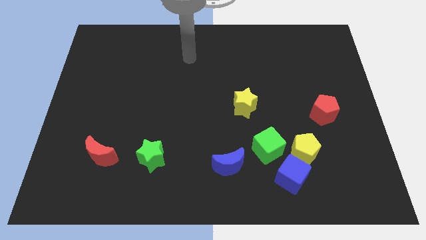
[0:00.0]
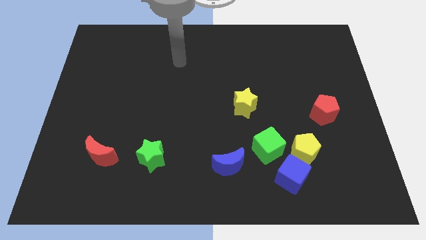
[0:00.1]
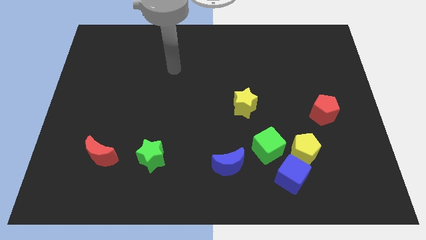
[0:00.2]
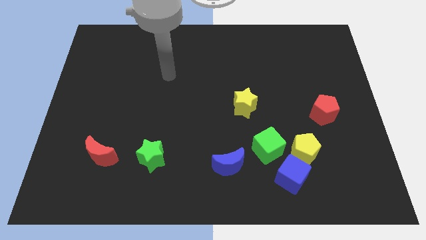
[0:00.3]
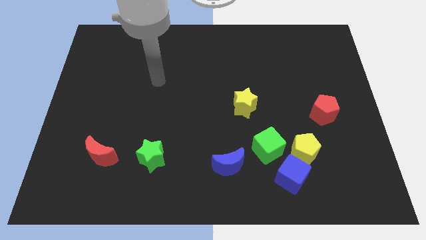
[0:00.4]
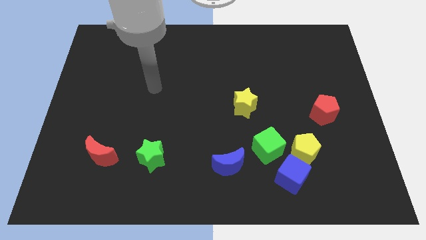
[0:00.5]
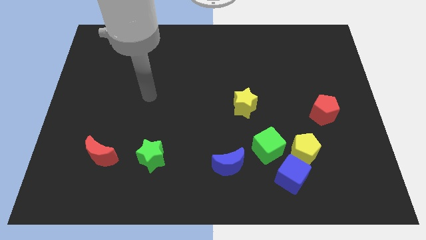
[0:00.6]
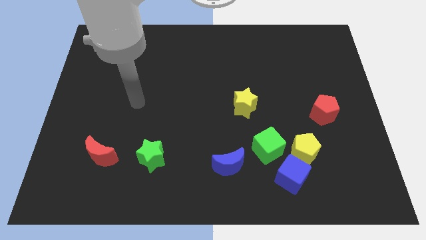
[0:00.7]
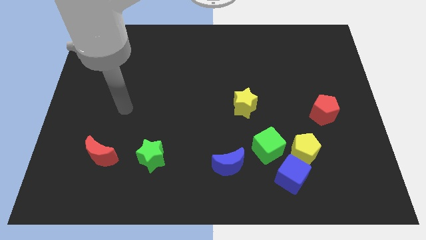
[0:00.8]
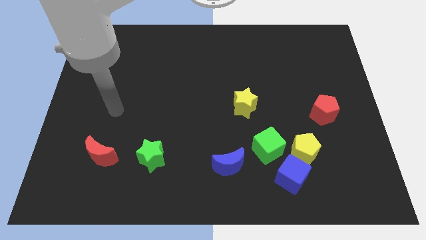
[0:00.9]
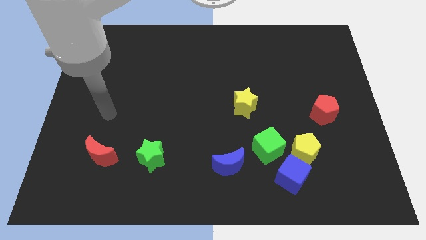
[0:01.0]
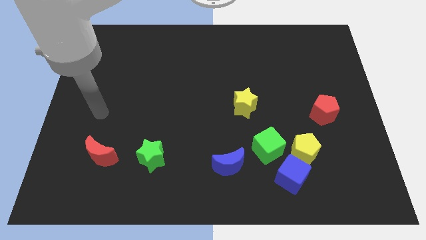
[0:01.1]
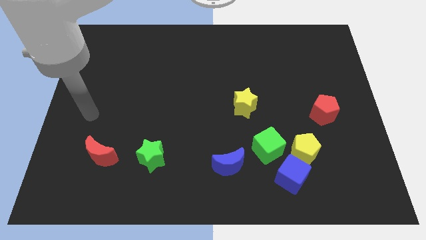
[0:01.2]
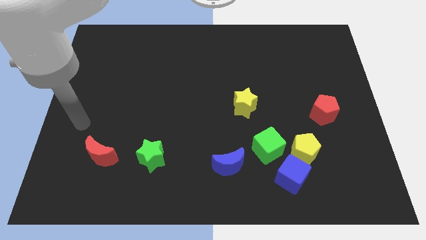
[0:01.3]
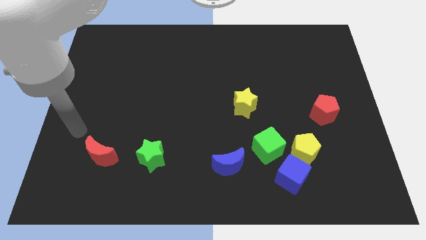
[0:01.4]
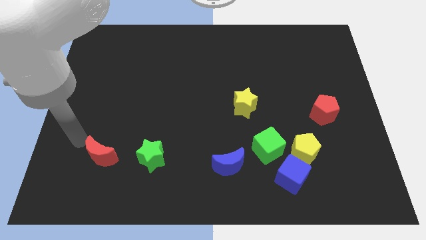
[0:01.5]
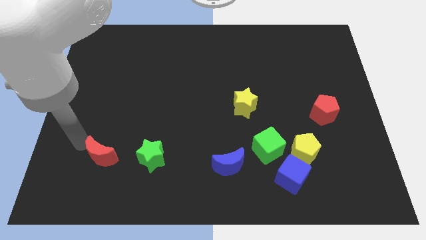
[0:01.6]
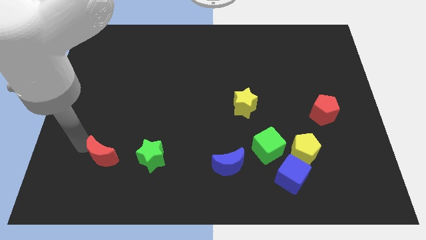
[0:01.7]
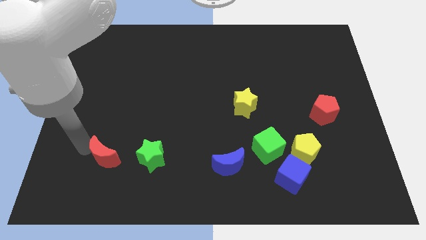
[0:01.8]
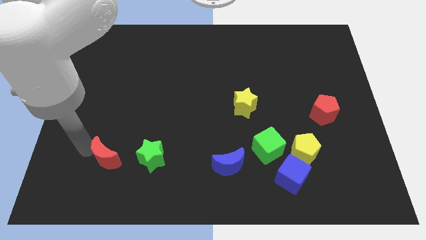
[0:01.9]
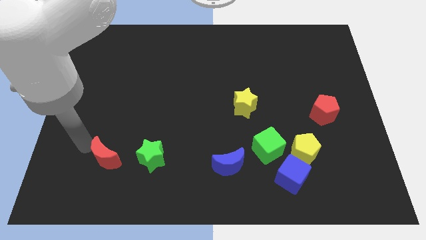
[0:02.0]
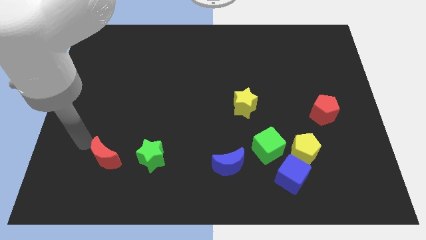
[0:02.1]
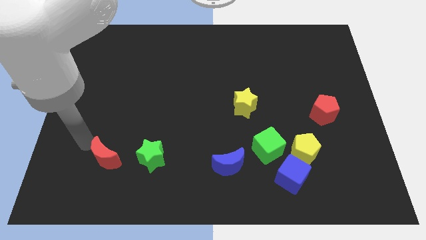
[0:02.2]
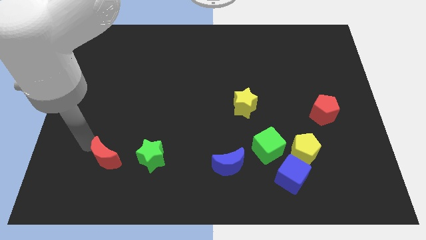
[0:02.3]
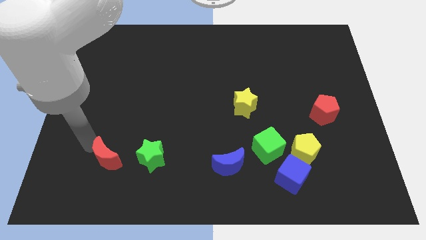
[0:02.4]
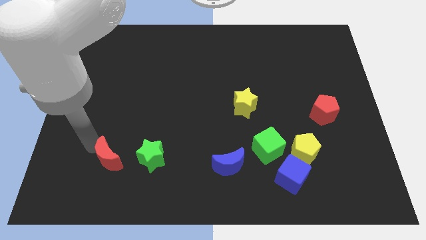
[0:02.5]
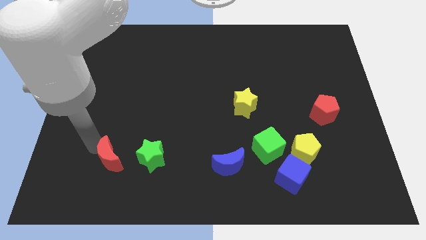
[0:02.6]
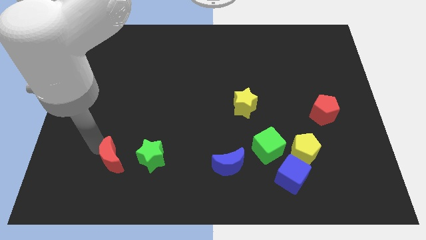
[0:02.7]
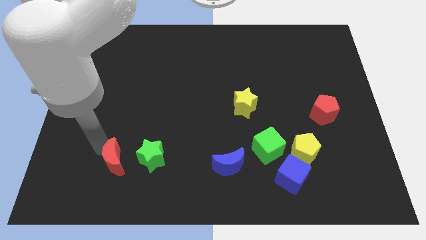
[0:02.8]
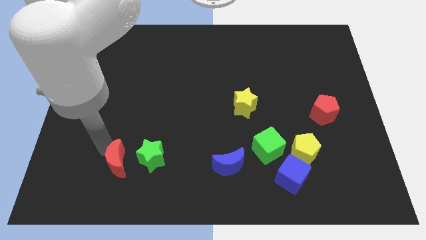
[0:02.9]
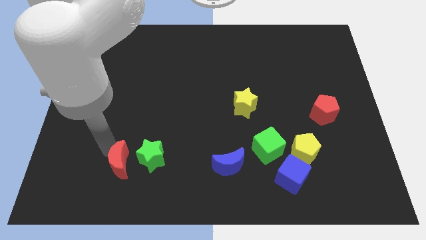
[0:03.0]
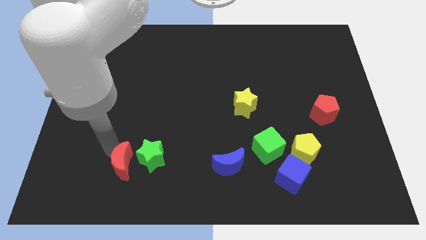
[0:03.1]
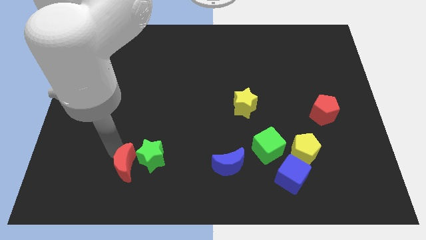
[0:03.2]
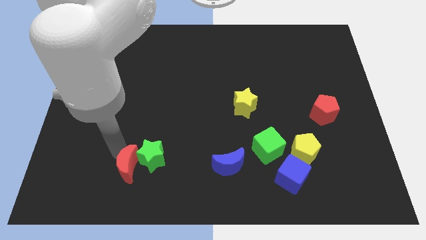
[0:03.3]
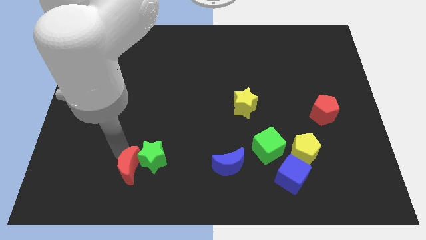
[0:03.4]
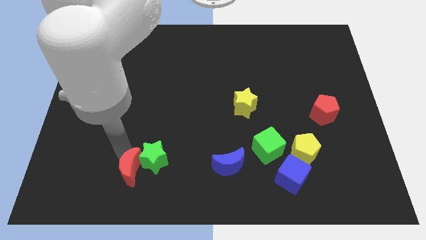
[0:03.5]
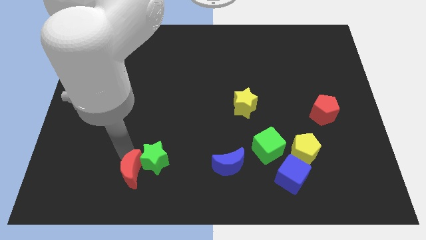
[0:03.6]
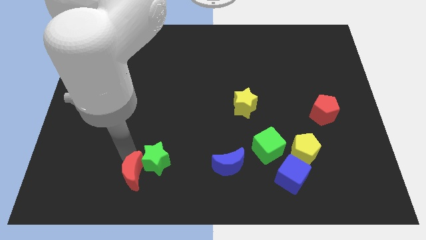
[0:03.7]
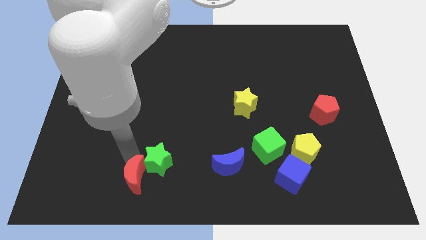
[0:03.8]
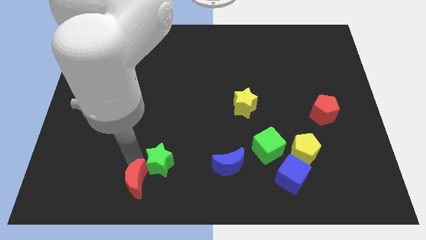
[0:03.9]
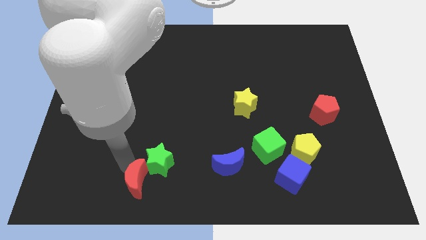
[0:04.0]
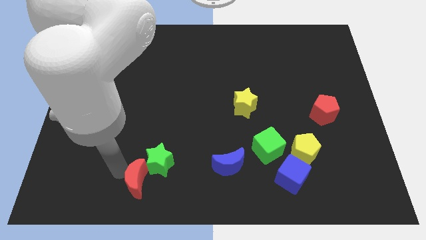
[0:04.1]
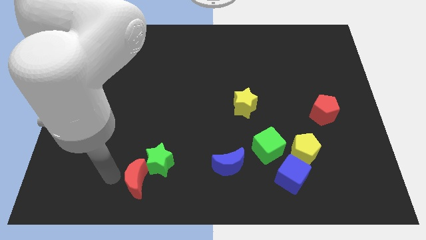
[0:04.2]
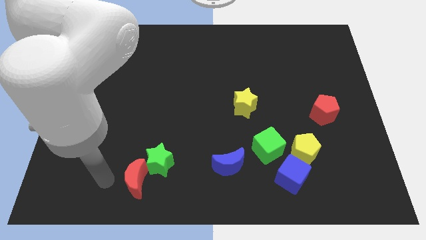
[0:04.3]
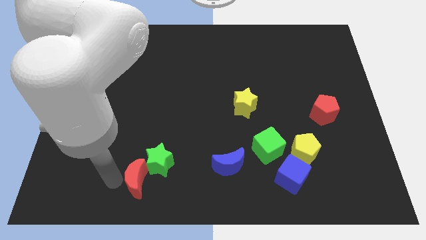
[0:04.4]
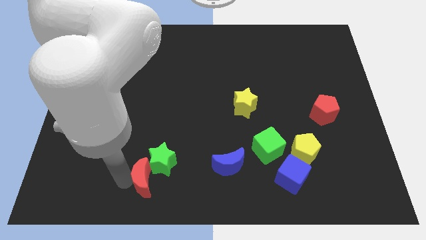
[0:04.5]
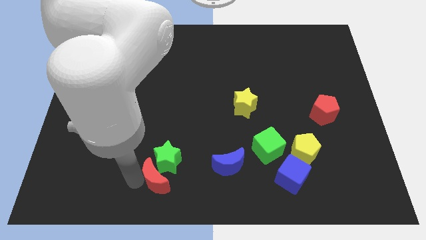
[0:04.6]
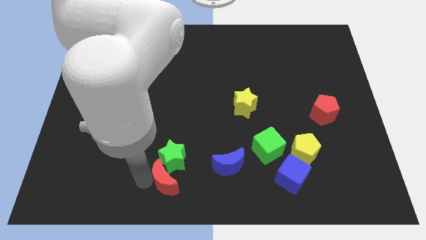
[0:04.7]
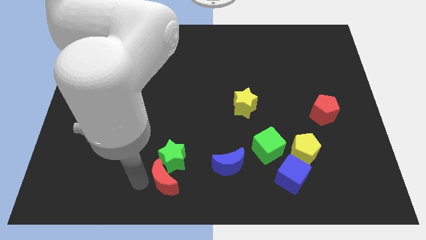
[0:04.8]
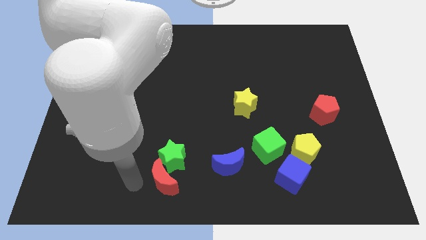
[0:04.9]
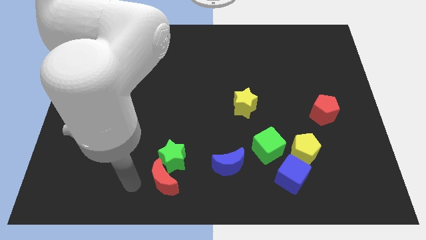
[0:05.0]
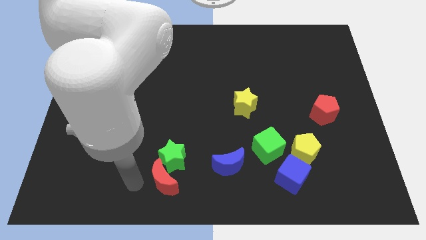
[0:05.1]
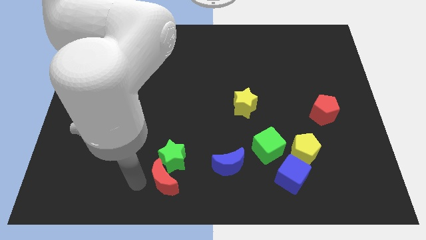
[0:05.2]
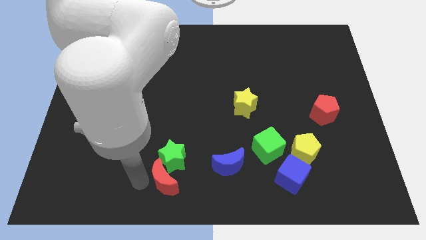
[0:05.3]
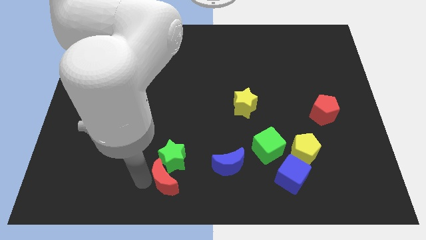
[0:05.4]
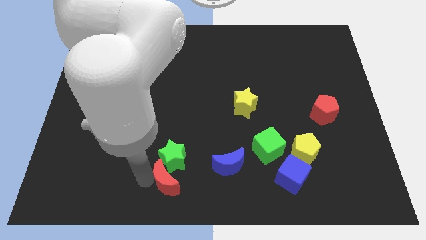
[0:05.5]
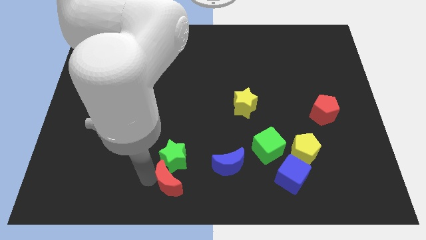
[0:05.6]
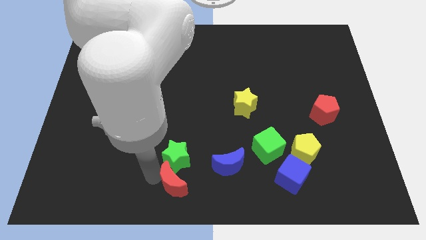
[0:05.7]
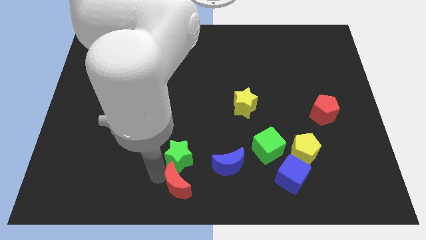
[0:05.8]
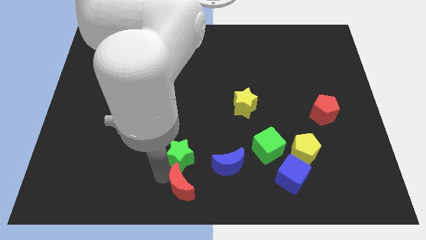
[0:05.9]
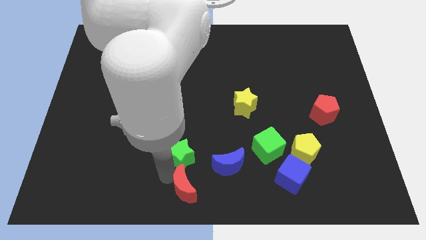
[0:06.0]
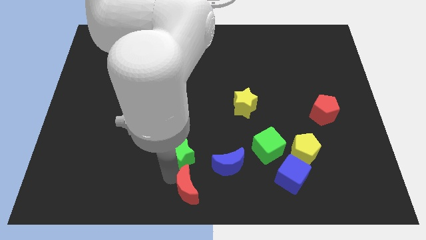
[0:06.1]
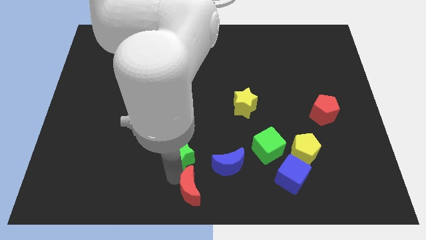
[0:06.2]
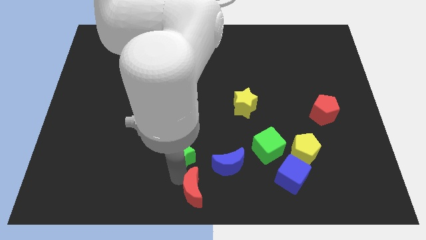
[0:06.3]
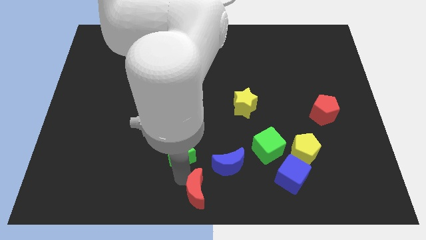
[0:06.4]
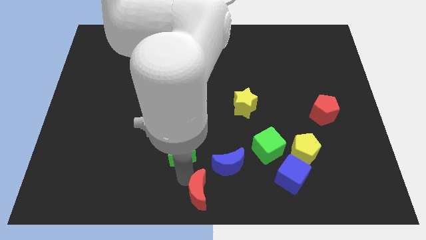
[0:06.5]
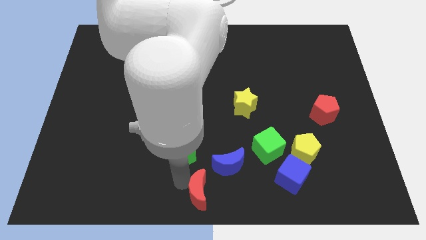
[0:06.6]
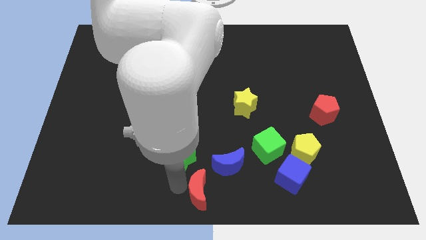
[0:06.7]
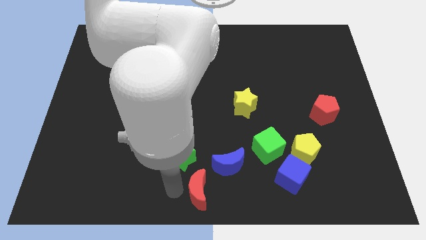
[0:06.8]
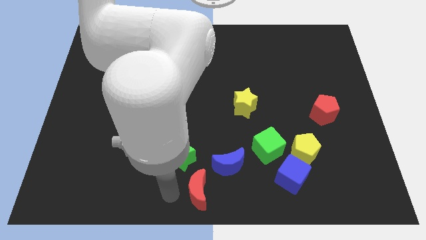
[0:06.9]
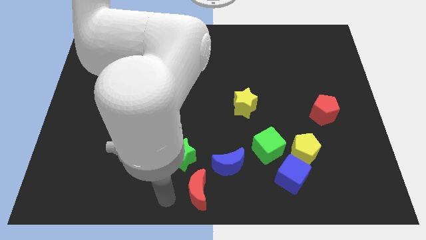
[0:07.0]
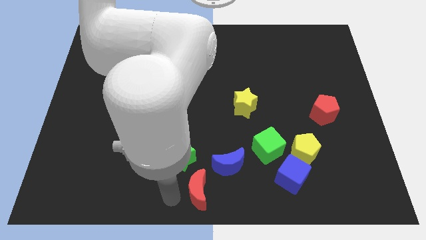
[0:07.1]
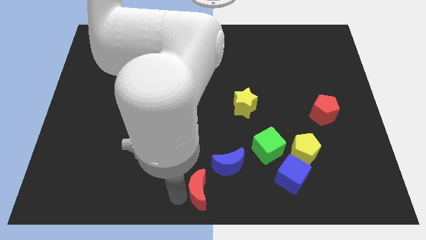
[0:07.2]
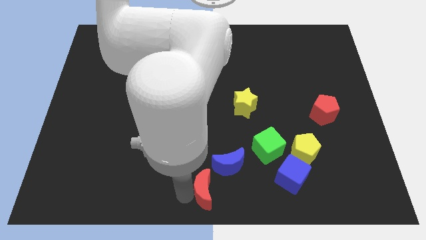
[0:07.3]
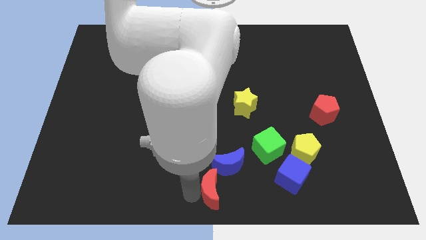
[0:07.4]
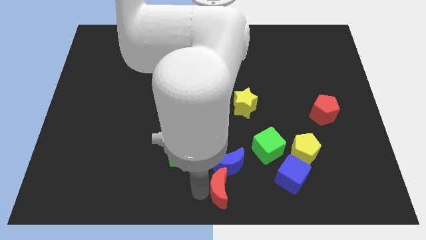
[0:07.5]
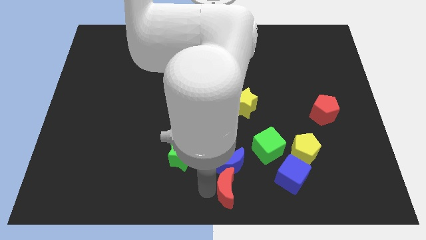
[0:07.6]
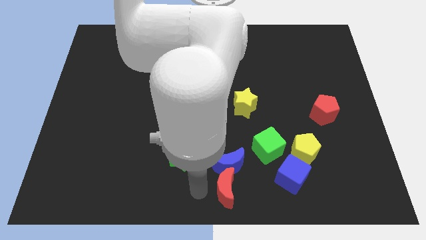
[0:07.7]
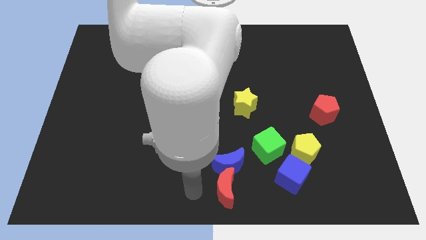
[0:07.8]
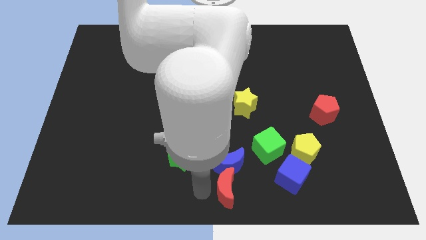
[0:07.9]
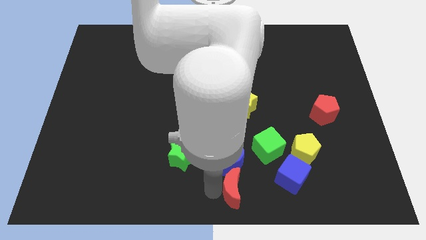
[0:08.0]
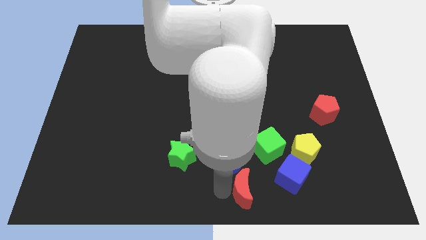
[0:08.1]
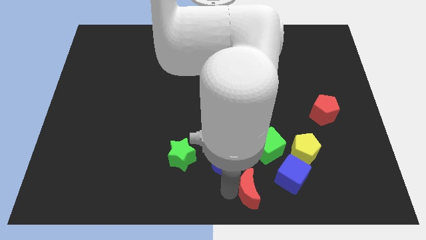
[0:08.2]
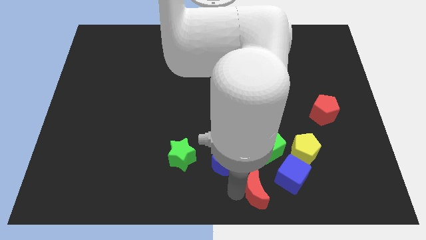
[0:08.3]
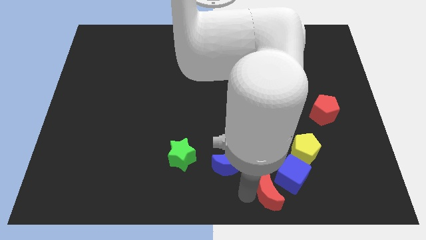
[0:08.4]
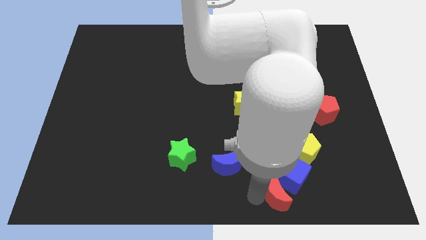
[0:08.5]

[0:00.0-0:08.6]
put the red moon to the blue cube
